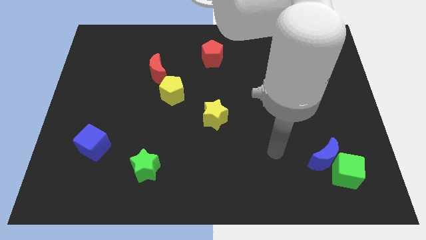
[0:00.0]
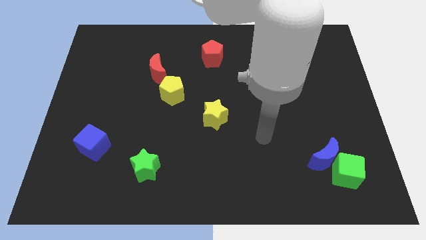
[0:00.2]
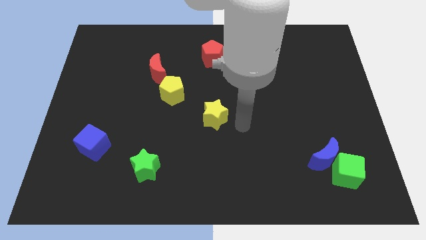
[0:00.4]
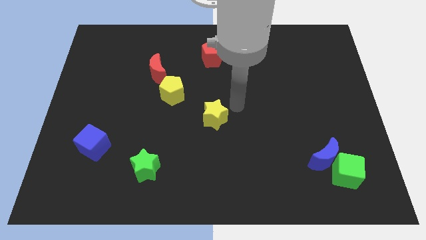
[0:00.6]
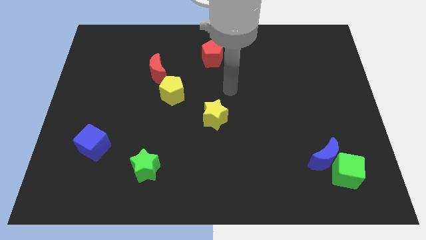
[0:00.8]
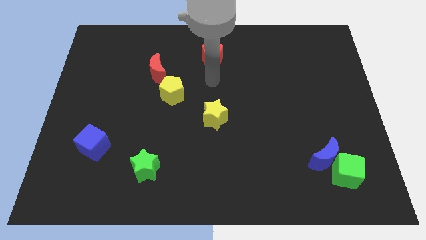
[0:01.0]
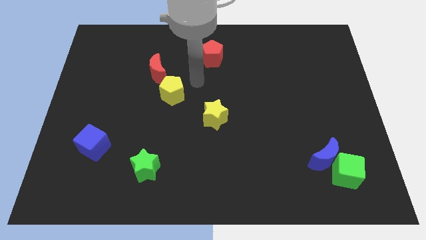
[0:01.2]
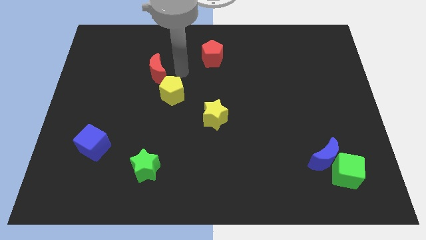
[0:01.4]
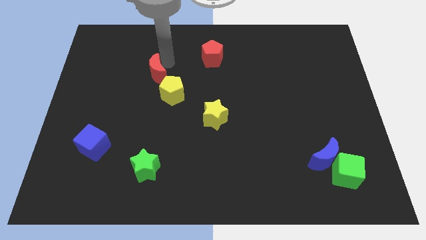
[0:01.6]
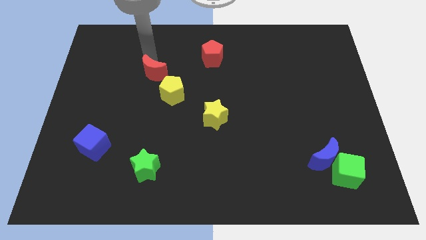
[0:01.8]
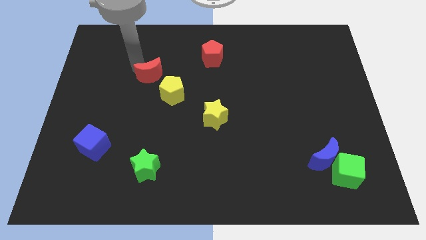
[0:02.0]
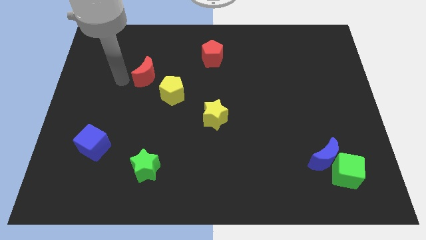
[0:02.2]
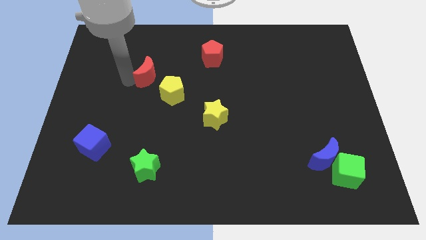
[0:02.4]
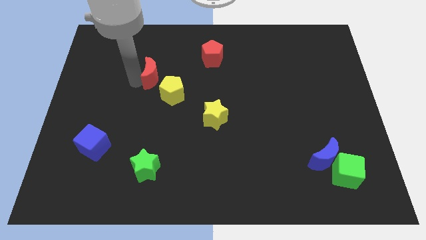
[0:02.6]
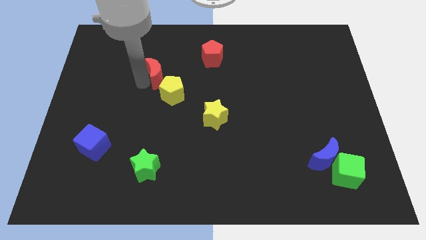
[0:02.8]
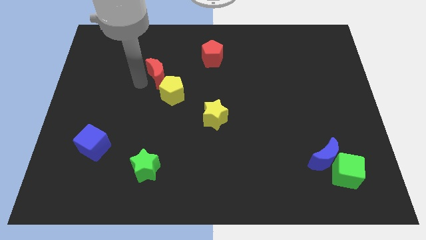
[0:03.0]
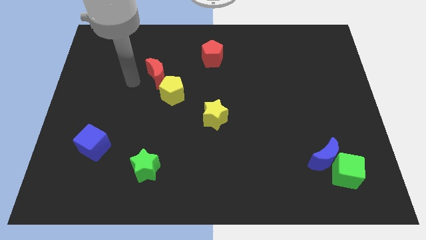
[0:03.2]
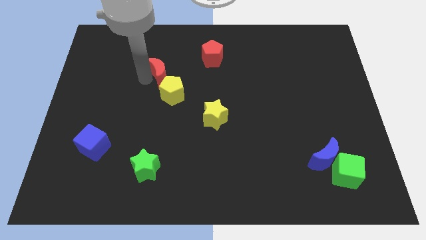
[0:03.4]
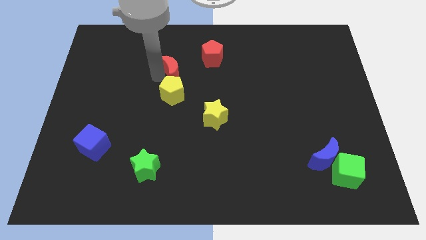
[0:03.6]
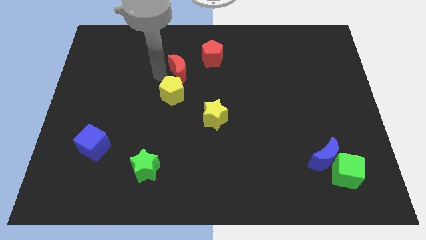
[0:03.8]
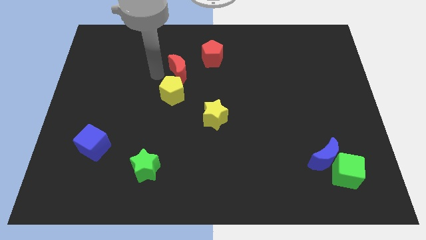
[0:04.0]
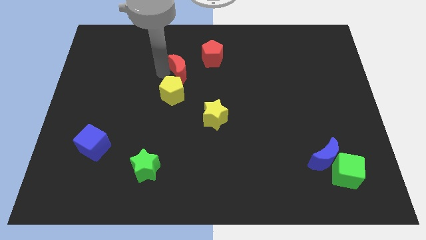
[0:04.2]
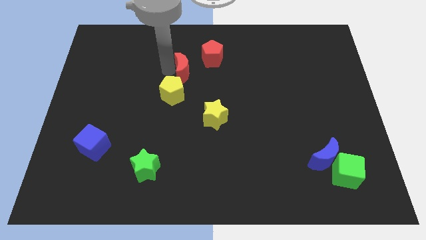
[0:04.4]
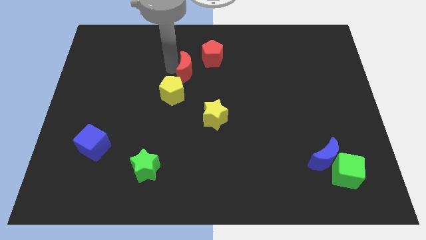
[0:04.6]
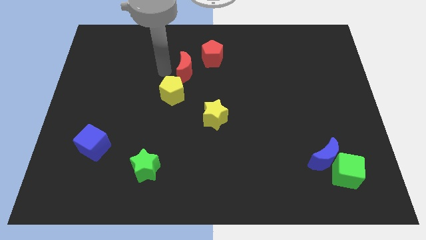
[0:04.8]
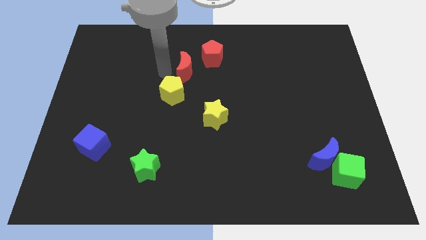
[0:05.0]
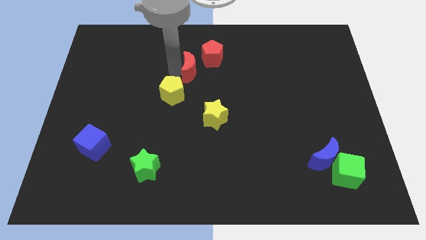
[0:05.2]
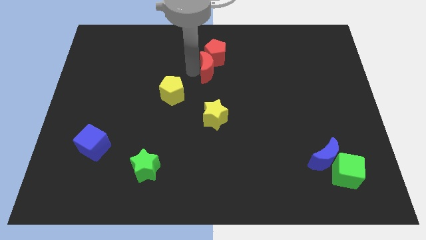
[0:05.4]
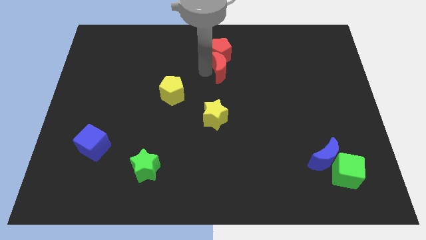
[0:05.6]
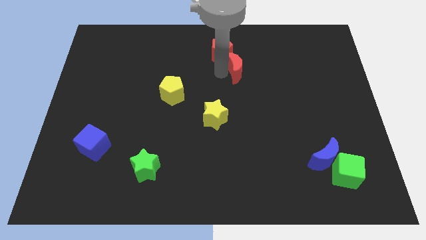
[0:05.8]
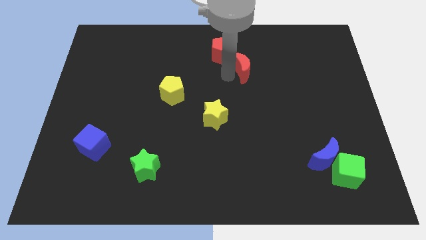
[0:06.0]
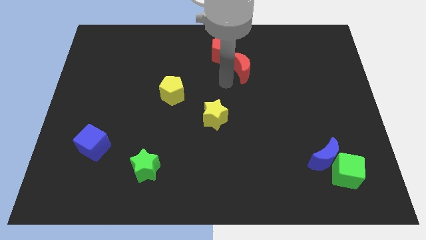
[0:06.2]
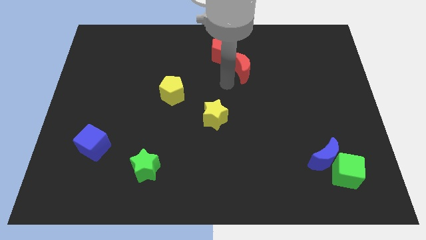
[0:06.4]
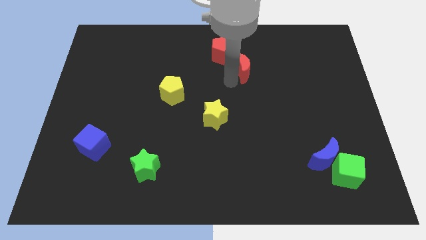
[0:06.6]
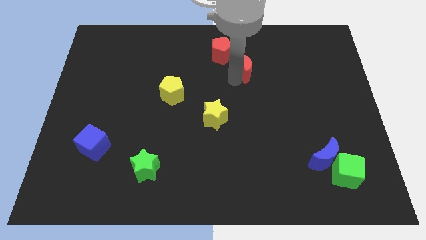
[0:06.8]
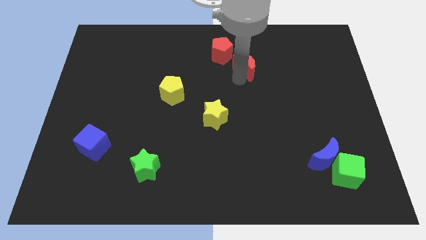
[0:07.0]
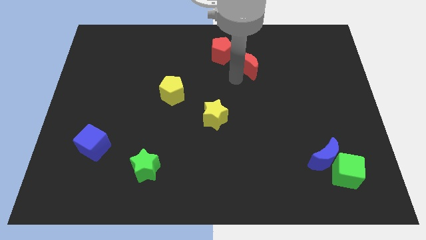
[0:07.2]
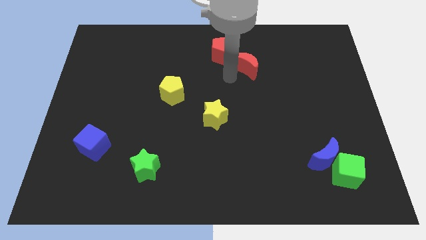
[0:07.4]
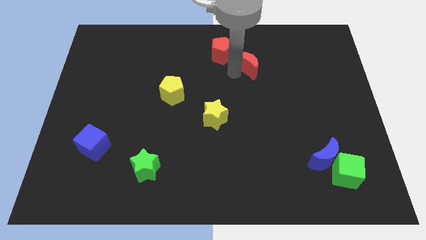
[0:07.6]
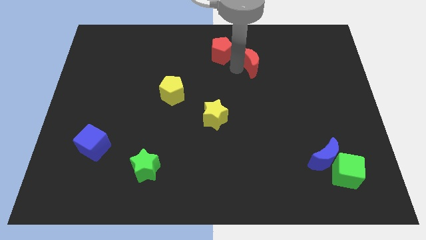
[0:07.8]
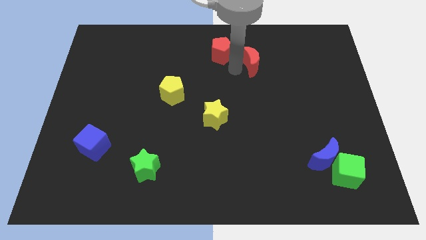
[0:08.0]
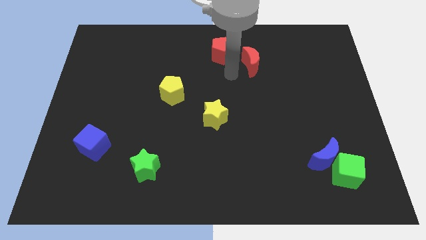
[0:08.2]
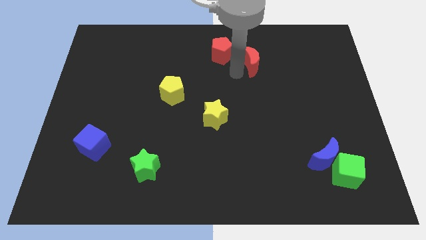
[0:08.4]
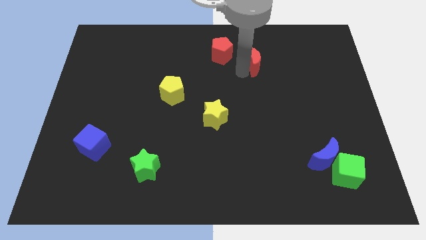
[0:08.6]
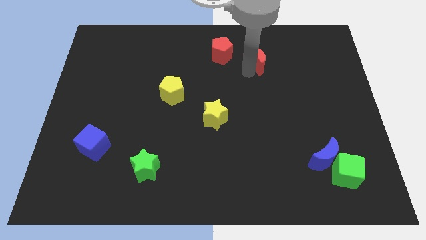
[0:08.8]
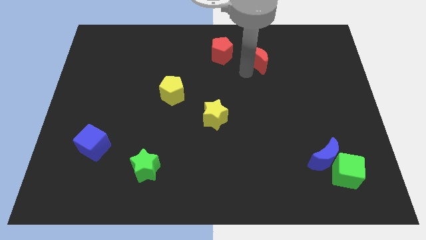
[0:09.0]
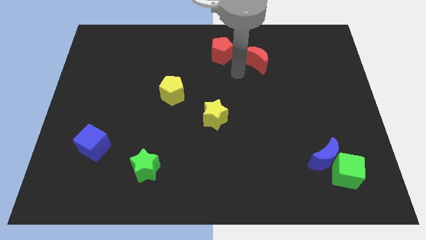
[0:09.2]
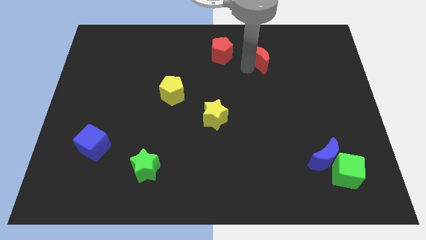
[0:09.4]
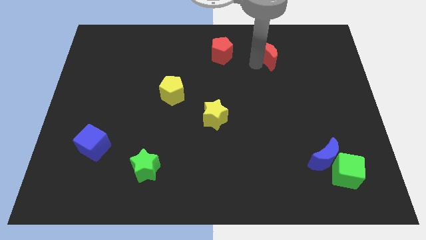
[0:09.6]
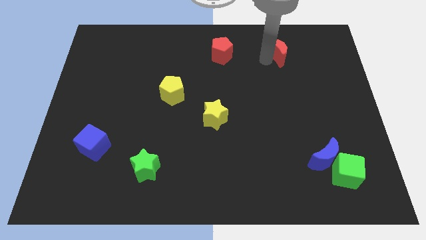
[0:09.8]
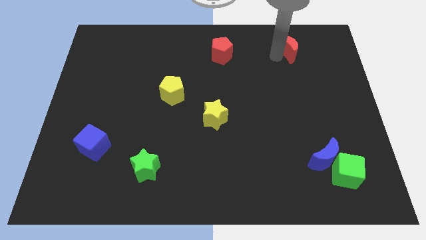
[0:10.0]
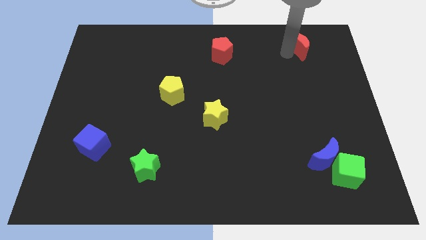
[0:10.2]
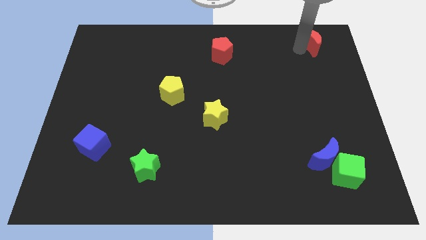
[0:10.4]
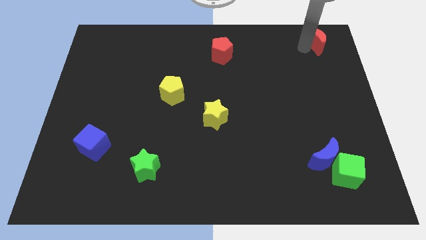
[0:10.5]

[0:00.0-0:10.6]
push the red moon to the top right corner

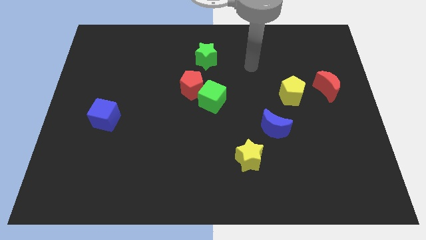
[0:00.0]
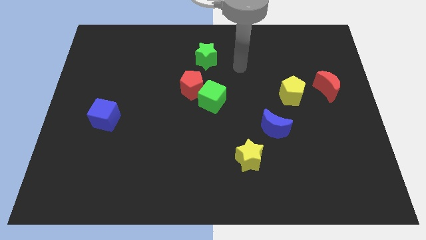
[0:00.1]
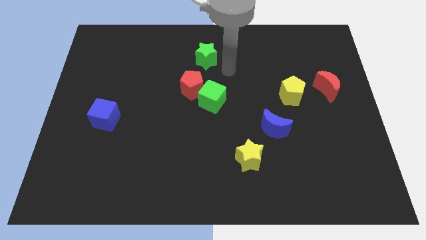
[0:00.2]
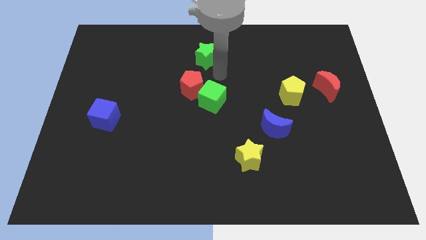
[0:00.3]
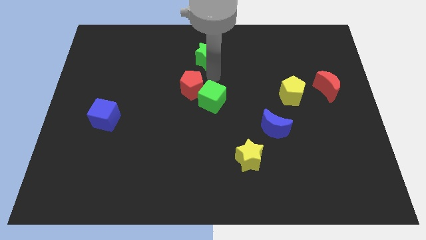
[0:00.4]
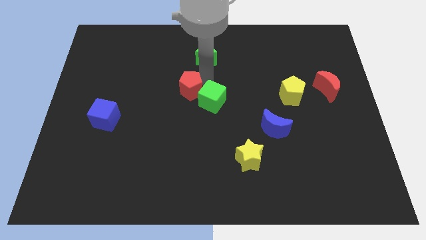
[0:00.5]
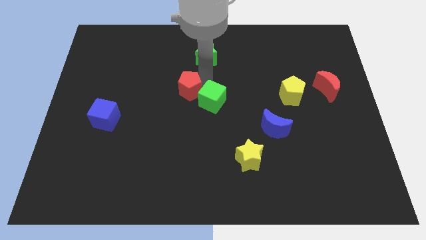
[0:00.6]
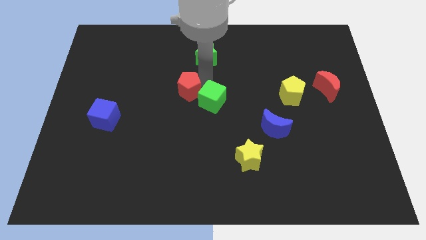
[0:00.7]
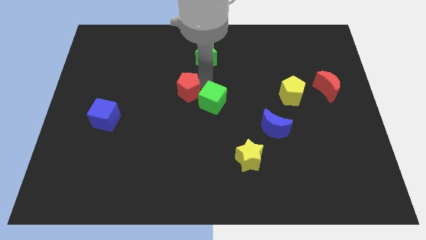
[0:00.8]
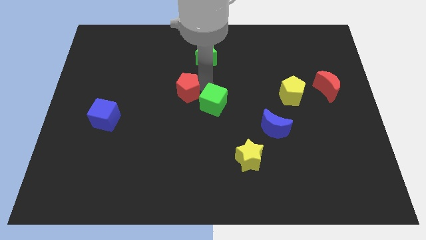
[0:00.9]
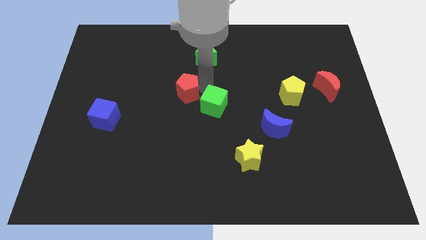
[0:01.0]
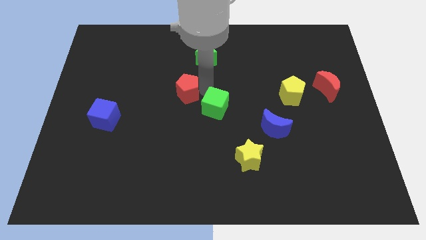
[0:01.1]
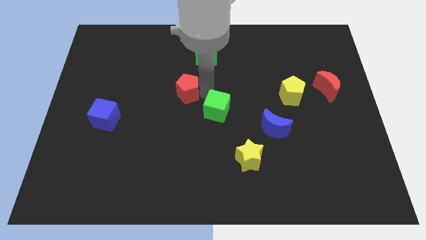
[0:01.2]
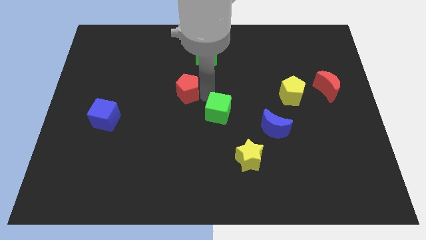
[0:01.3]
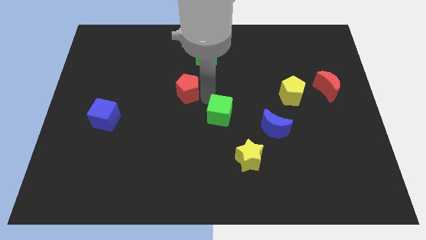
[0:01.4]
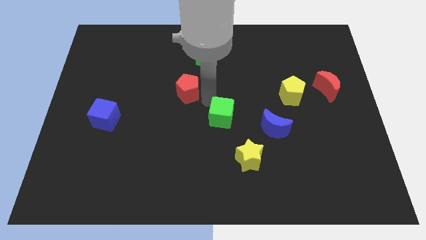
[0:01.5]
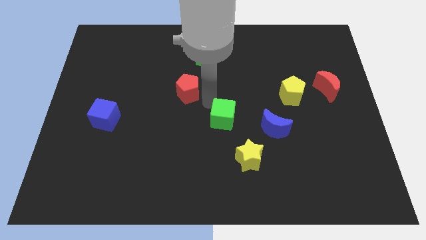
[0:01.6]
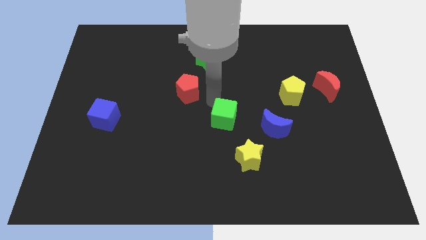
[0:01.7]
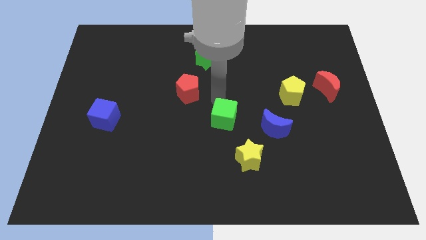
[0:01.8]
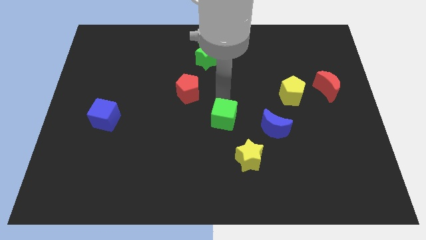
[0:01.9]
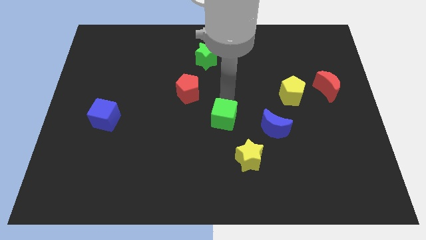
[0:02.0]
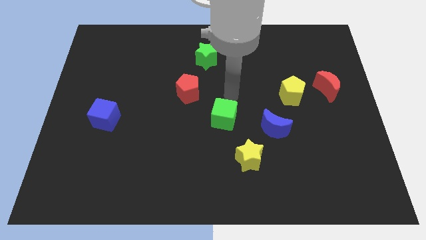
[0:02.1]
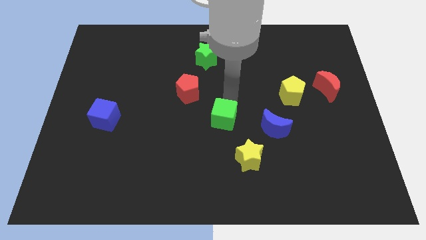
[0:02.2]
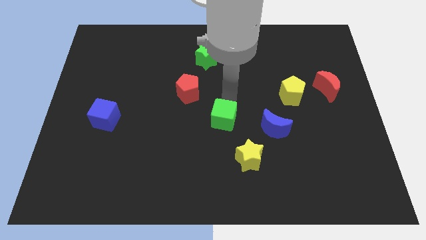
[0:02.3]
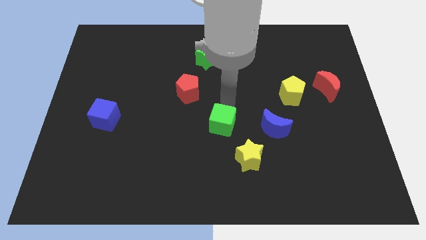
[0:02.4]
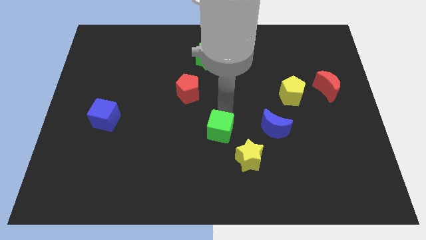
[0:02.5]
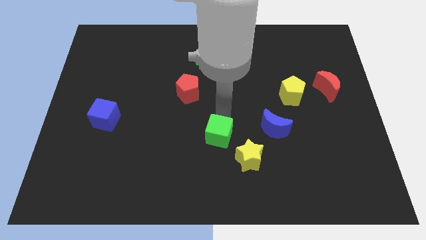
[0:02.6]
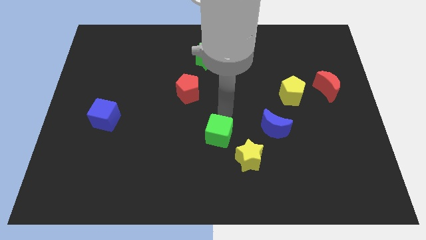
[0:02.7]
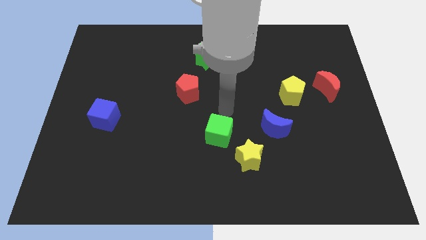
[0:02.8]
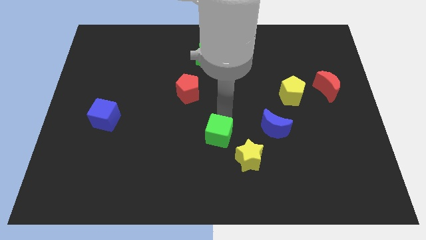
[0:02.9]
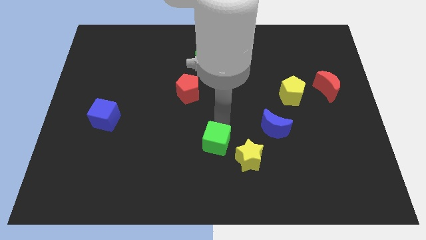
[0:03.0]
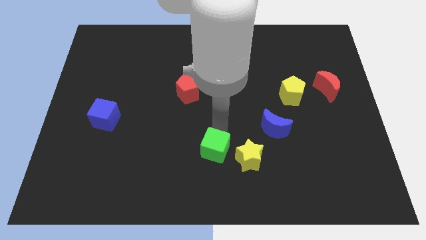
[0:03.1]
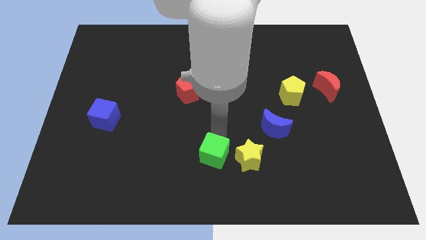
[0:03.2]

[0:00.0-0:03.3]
slide the green cube to the bottom
